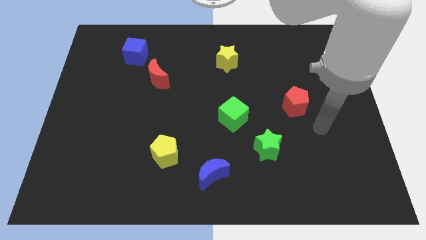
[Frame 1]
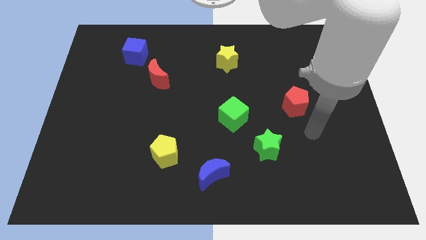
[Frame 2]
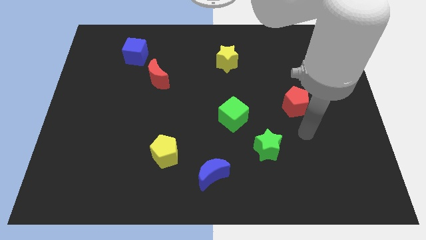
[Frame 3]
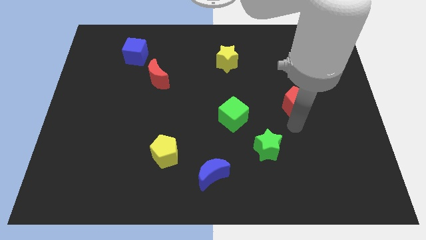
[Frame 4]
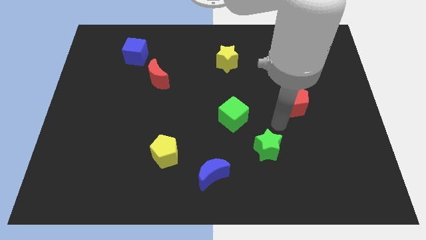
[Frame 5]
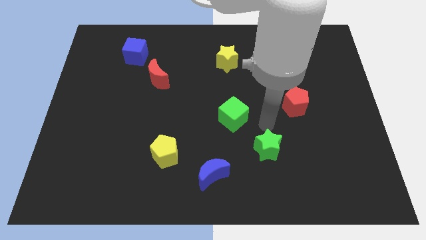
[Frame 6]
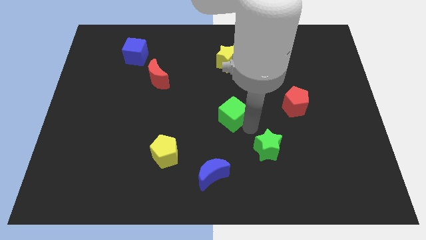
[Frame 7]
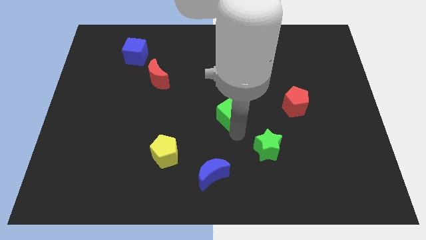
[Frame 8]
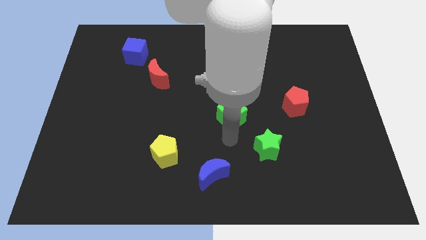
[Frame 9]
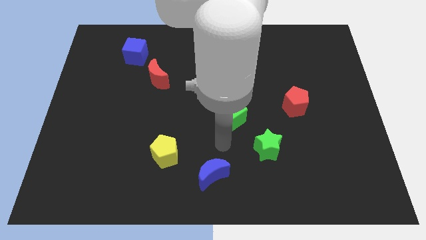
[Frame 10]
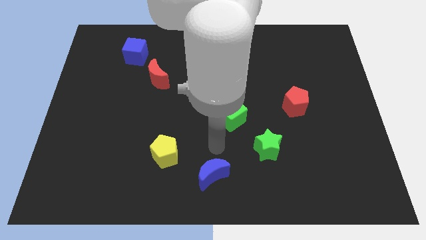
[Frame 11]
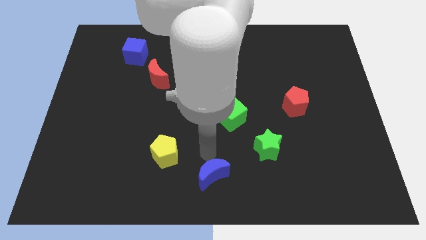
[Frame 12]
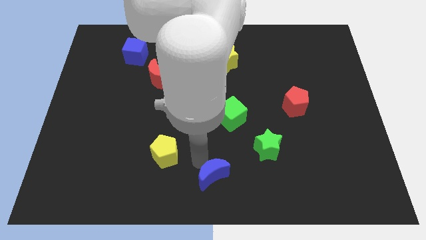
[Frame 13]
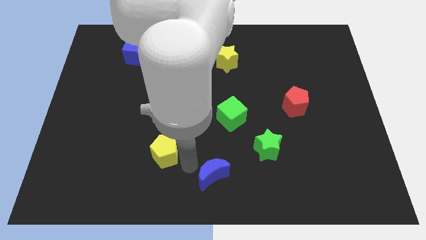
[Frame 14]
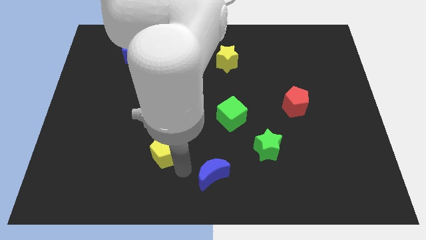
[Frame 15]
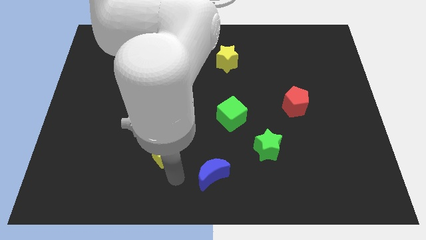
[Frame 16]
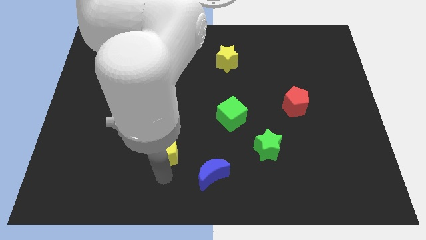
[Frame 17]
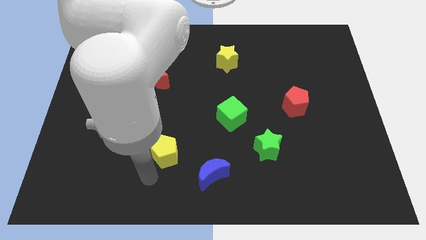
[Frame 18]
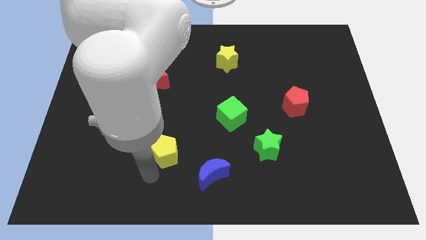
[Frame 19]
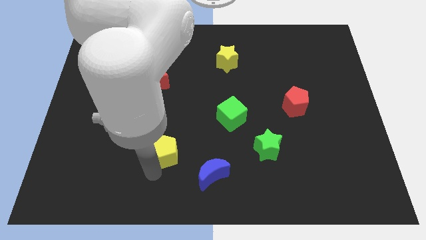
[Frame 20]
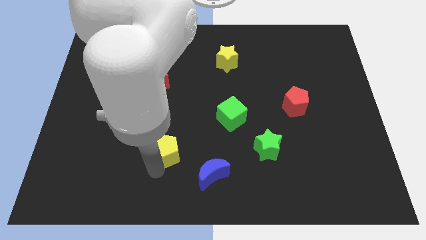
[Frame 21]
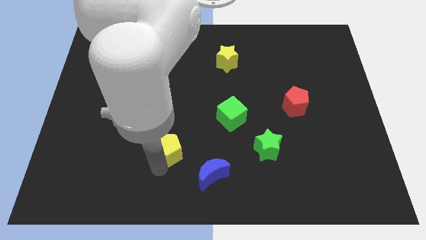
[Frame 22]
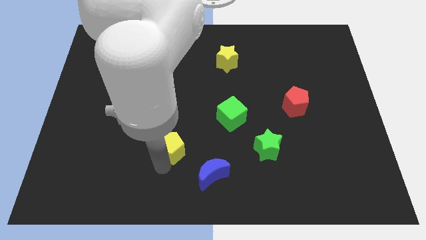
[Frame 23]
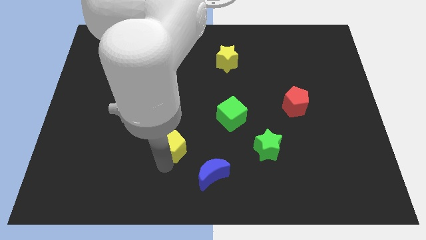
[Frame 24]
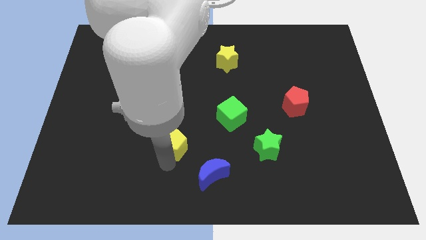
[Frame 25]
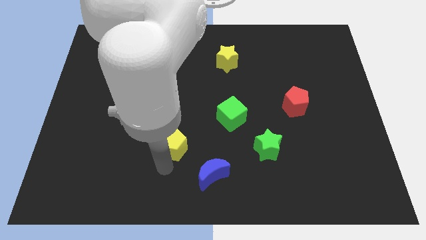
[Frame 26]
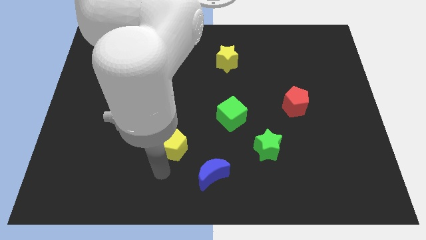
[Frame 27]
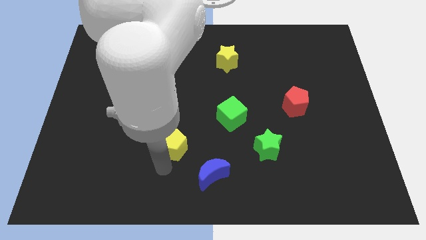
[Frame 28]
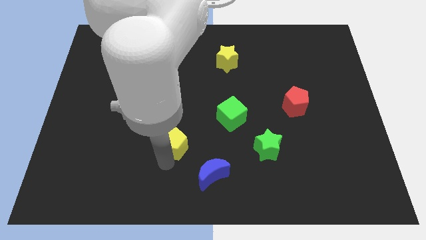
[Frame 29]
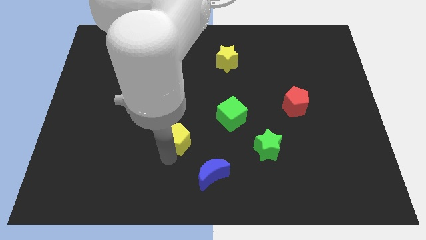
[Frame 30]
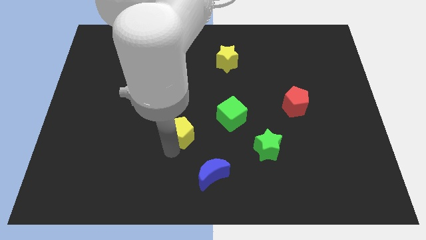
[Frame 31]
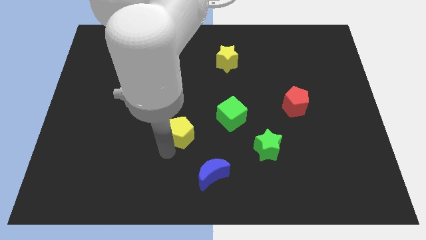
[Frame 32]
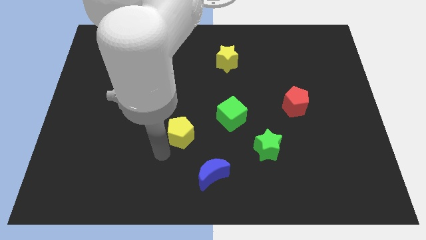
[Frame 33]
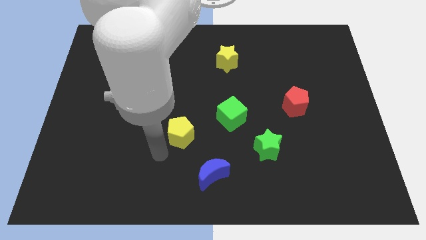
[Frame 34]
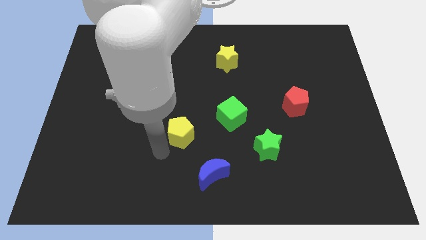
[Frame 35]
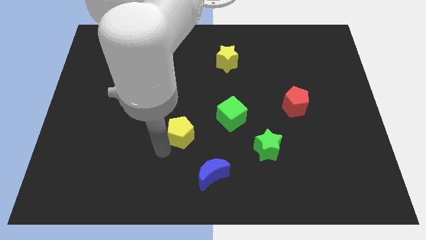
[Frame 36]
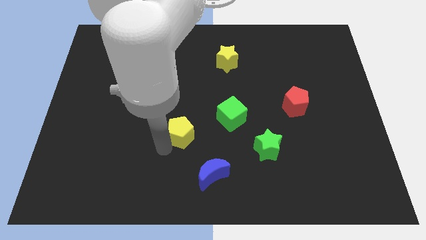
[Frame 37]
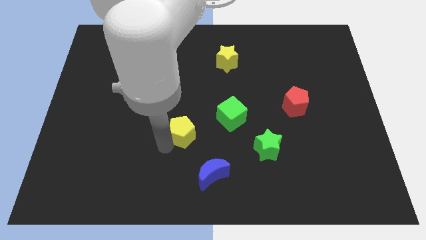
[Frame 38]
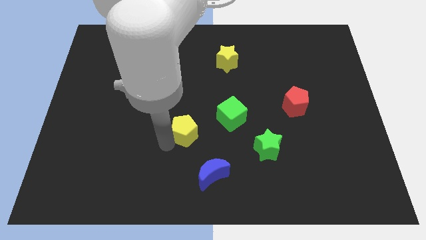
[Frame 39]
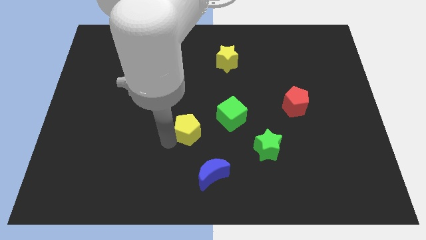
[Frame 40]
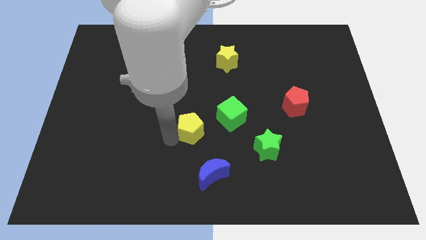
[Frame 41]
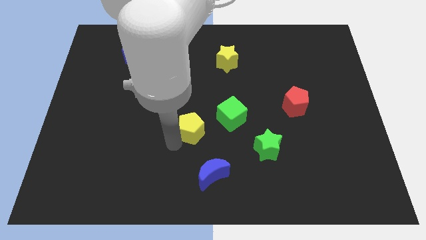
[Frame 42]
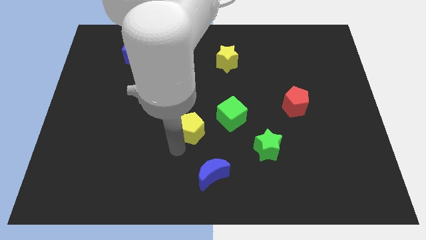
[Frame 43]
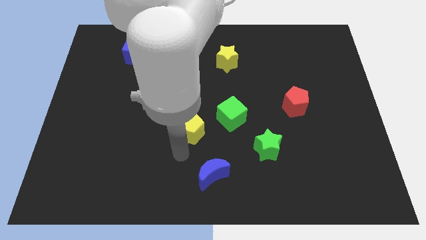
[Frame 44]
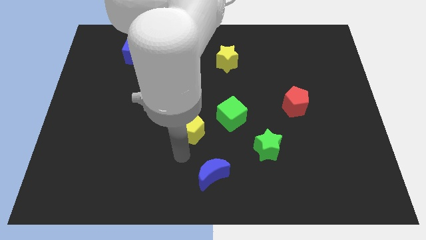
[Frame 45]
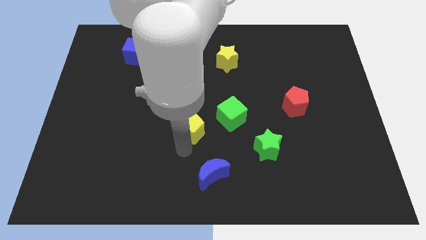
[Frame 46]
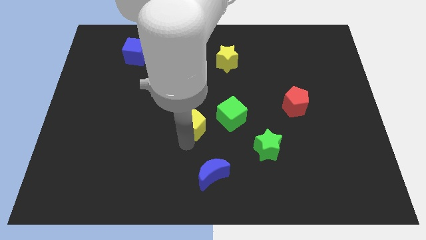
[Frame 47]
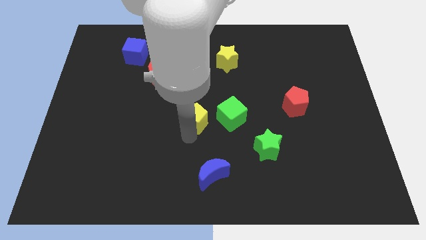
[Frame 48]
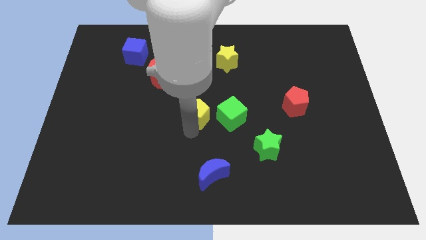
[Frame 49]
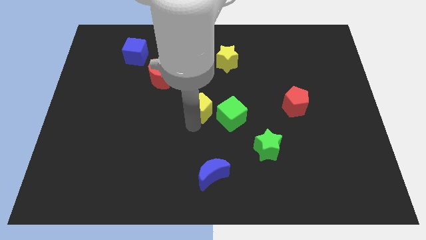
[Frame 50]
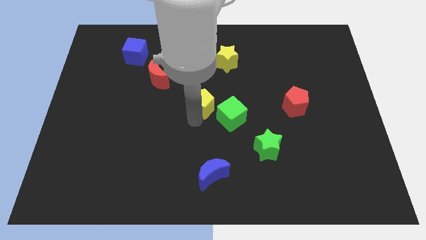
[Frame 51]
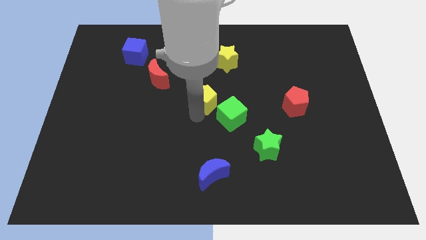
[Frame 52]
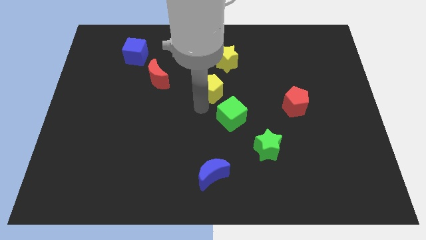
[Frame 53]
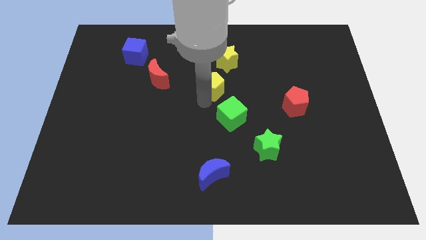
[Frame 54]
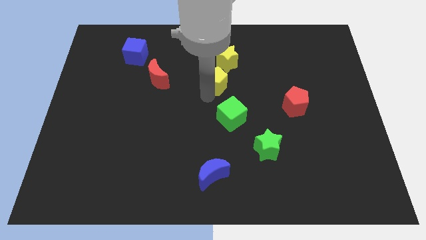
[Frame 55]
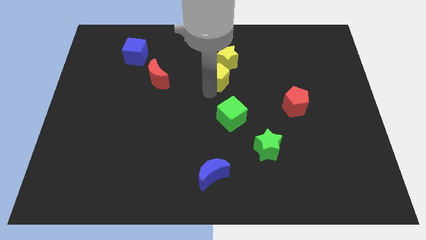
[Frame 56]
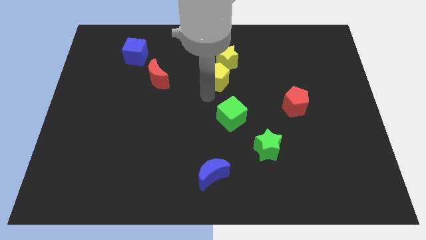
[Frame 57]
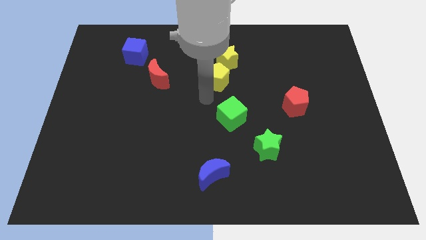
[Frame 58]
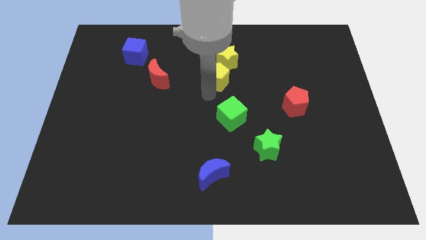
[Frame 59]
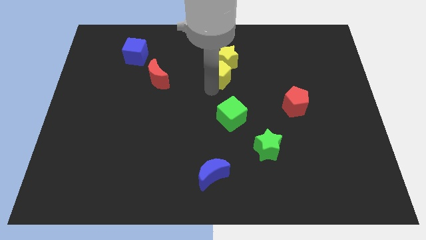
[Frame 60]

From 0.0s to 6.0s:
slide the yellow pentagon to the yellow star

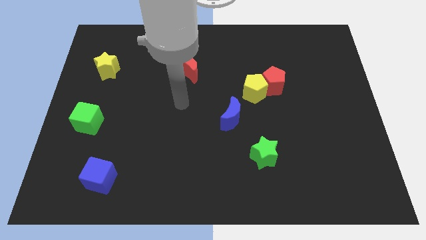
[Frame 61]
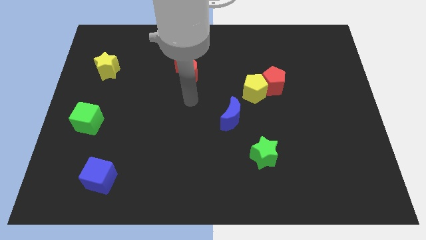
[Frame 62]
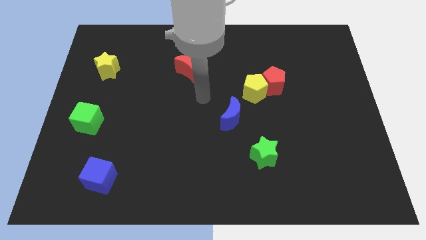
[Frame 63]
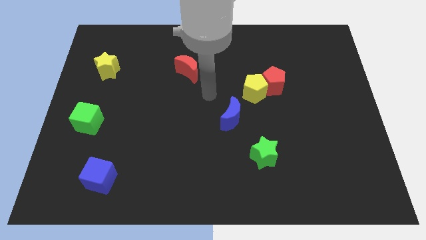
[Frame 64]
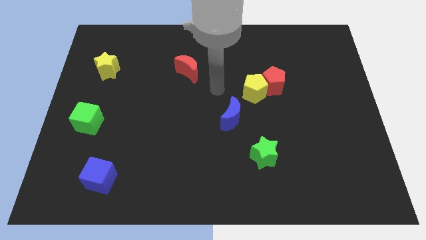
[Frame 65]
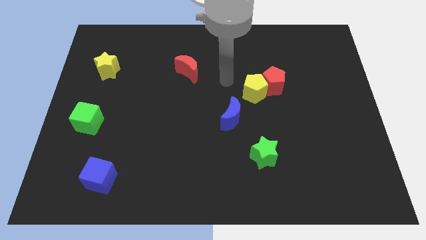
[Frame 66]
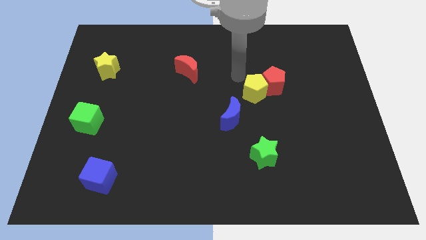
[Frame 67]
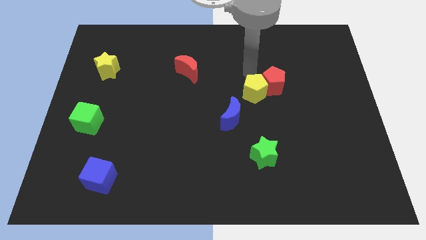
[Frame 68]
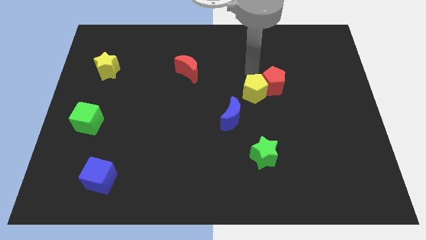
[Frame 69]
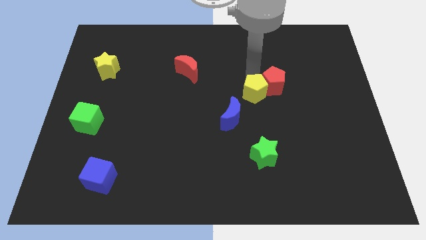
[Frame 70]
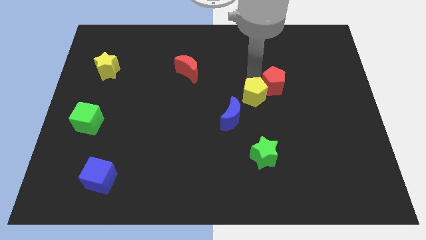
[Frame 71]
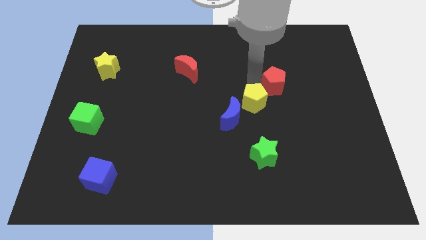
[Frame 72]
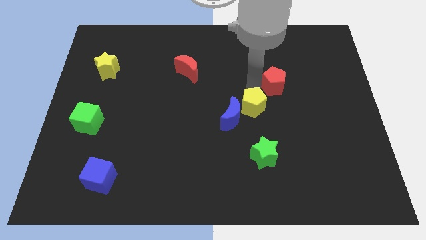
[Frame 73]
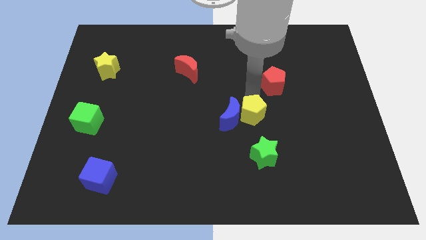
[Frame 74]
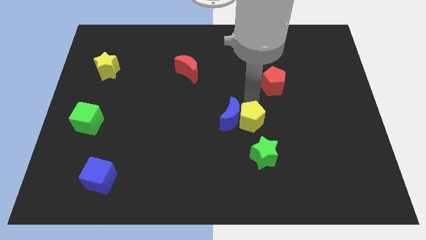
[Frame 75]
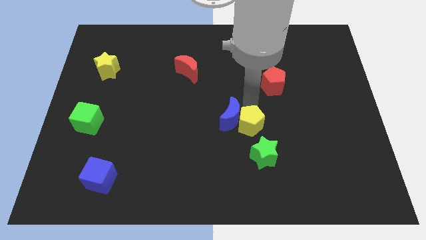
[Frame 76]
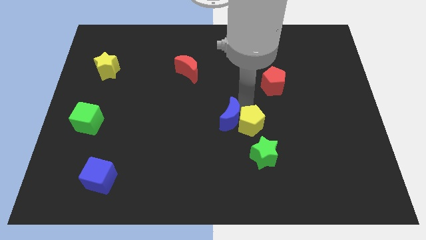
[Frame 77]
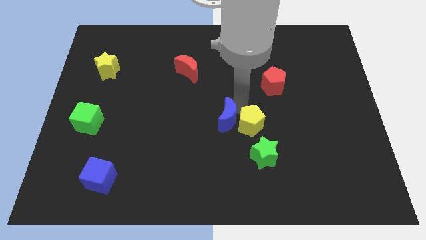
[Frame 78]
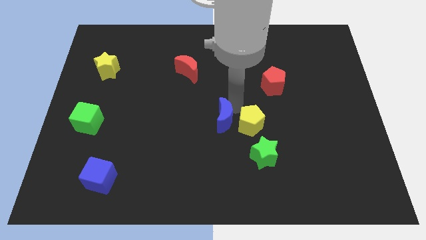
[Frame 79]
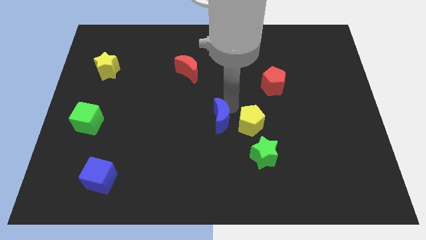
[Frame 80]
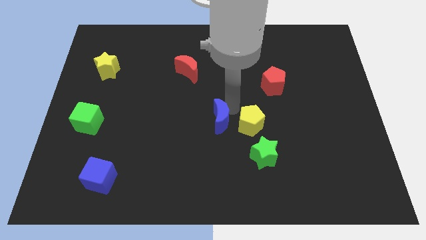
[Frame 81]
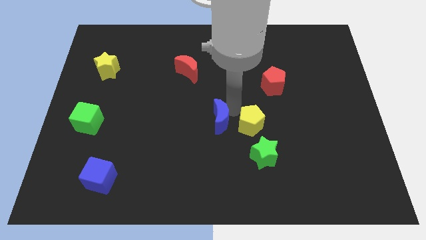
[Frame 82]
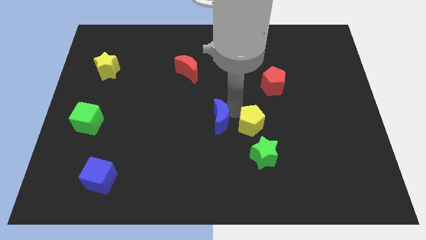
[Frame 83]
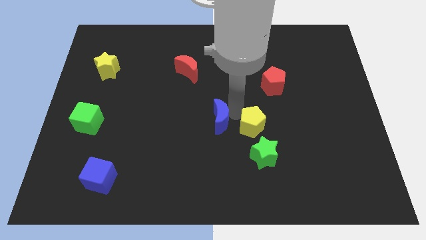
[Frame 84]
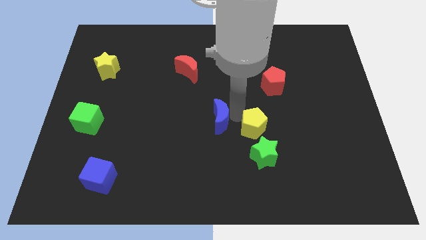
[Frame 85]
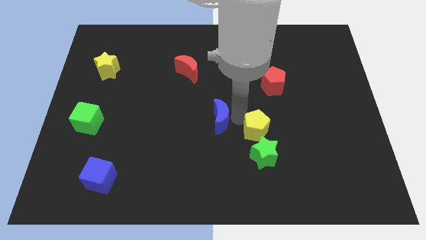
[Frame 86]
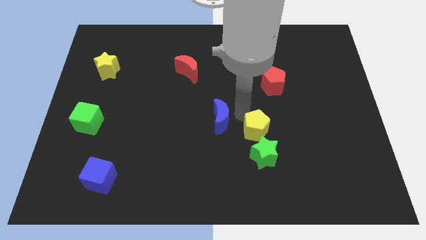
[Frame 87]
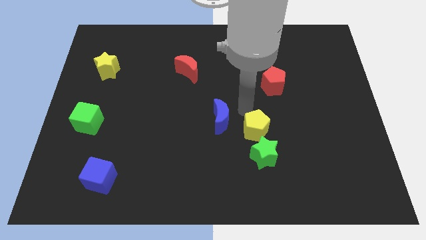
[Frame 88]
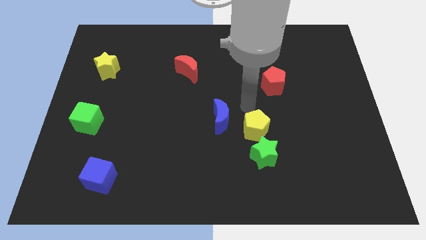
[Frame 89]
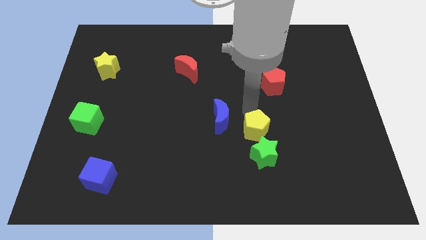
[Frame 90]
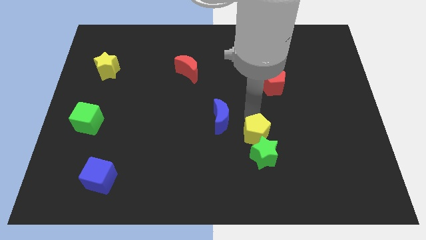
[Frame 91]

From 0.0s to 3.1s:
slide the yellow pentagon next to the green star
